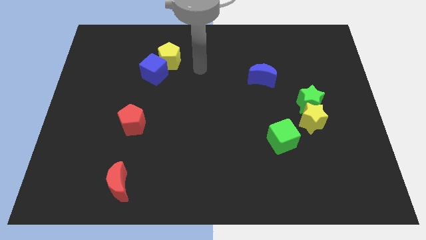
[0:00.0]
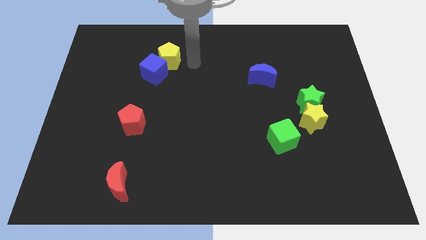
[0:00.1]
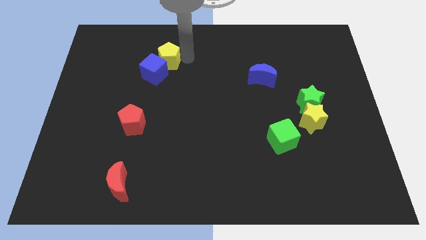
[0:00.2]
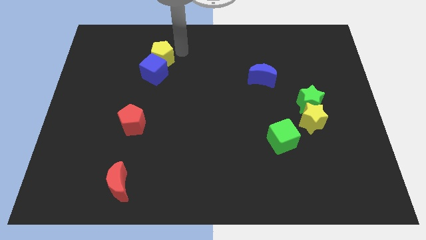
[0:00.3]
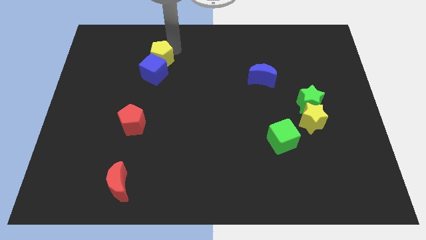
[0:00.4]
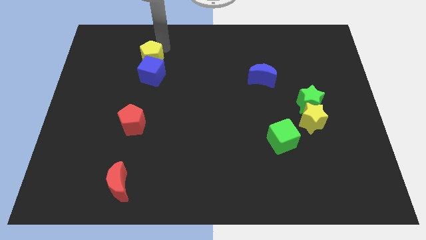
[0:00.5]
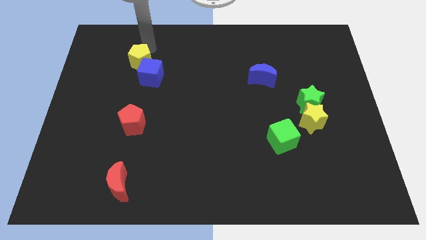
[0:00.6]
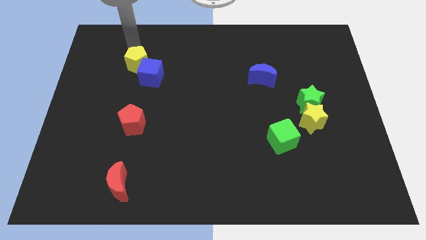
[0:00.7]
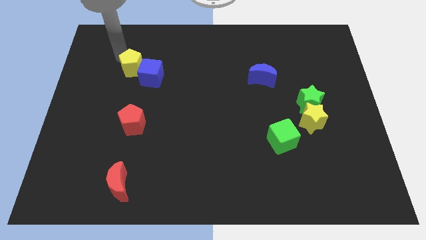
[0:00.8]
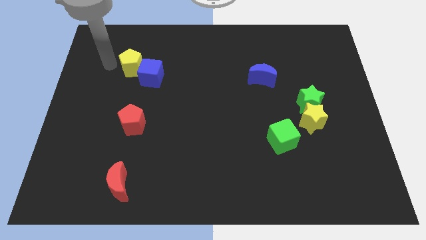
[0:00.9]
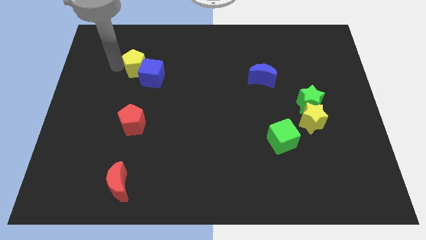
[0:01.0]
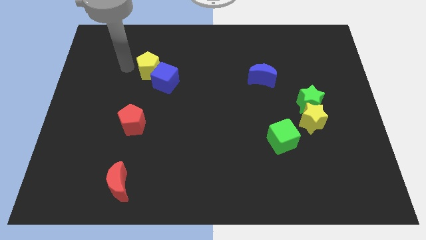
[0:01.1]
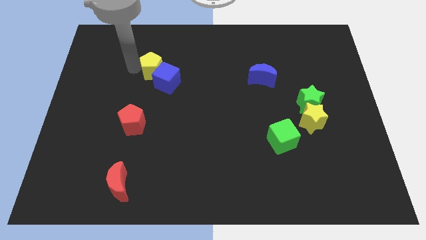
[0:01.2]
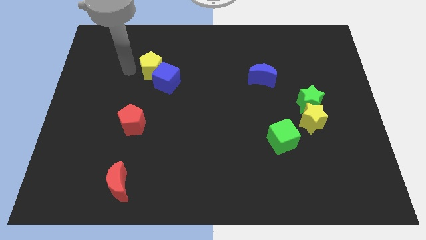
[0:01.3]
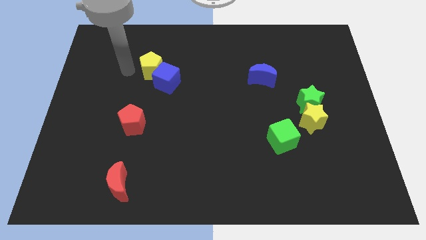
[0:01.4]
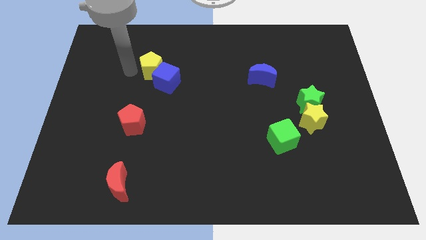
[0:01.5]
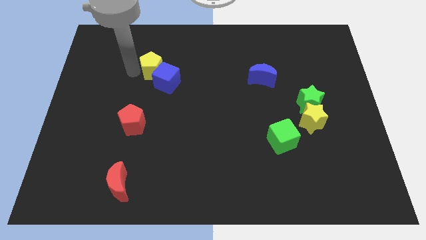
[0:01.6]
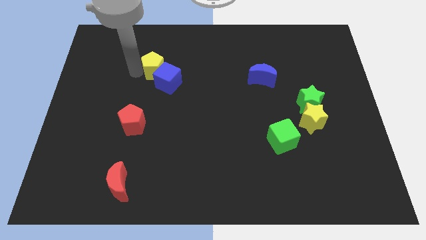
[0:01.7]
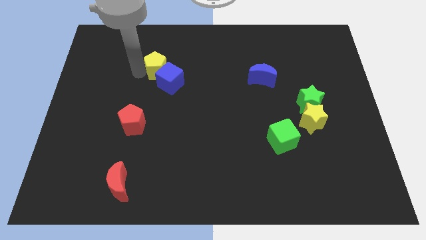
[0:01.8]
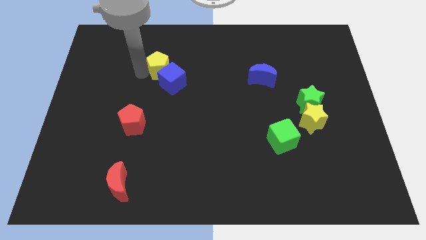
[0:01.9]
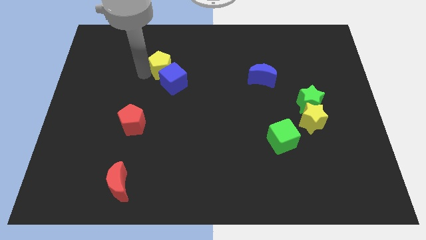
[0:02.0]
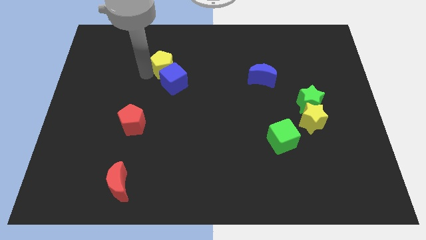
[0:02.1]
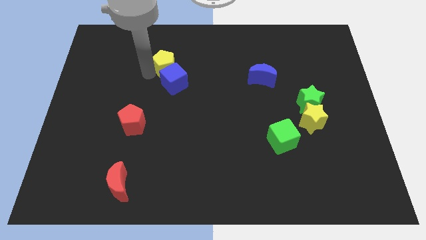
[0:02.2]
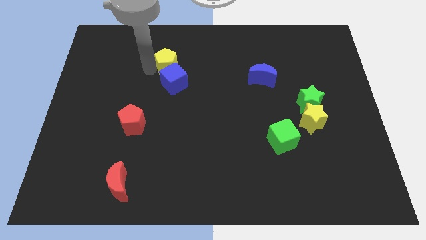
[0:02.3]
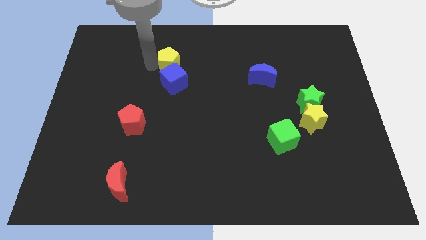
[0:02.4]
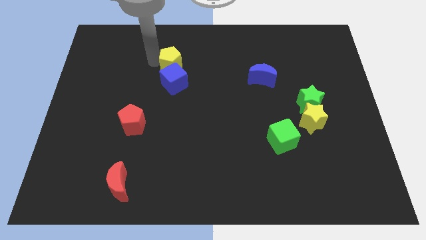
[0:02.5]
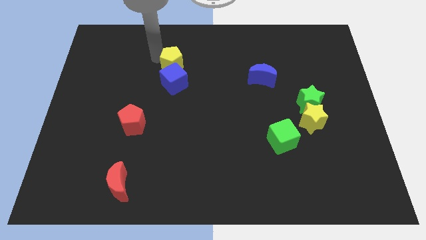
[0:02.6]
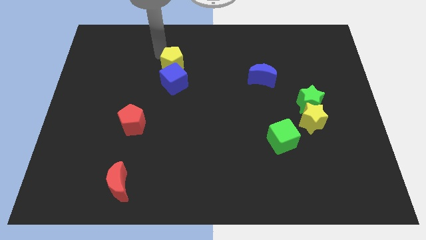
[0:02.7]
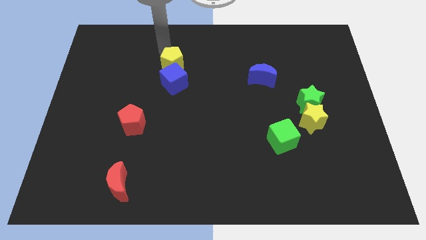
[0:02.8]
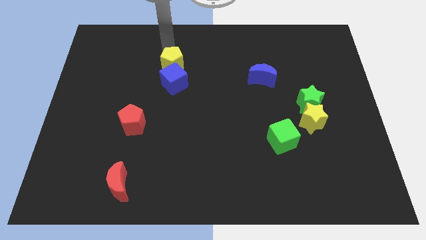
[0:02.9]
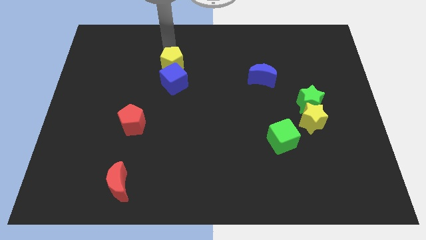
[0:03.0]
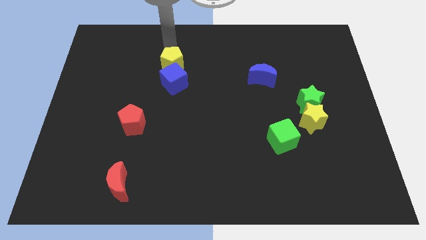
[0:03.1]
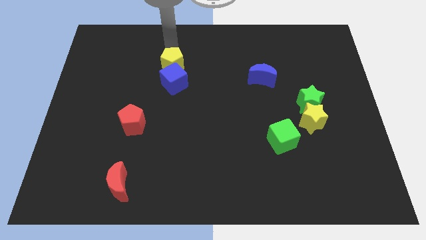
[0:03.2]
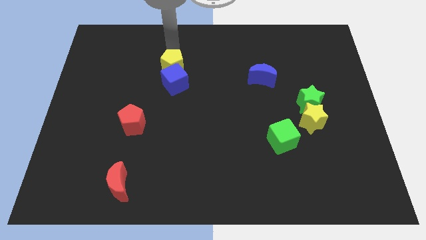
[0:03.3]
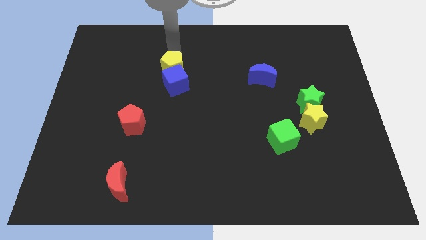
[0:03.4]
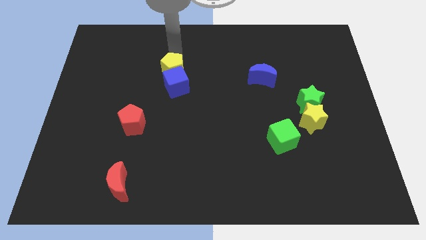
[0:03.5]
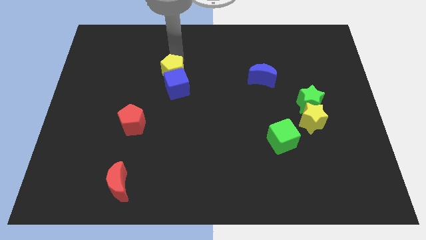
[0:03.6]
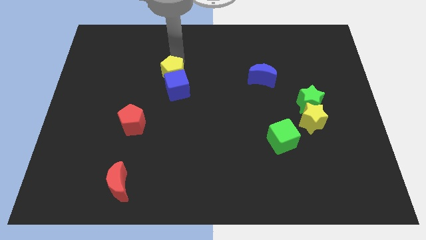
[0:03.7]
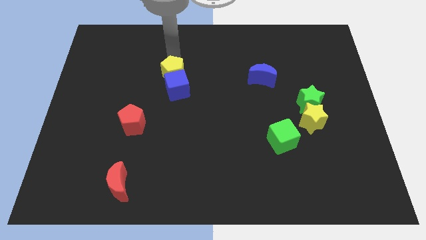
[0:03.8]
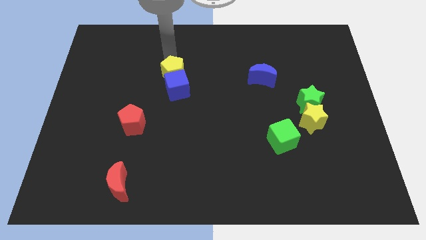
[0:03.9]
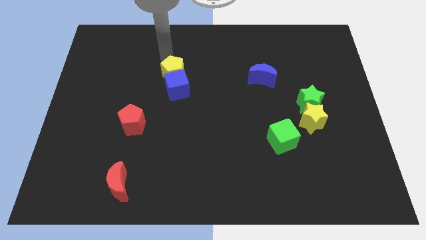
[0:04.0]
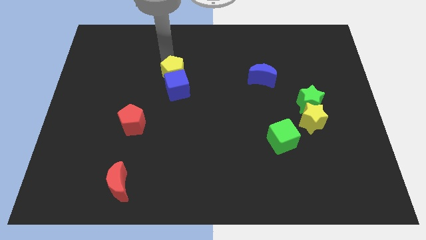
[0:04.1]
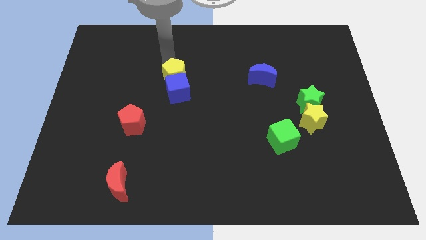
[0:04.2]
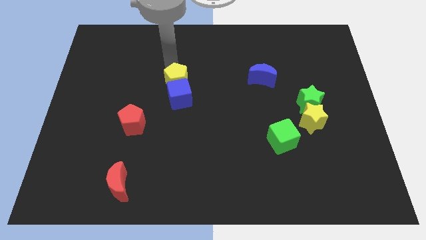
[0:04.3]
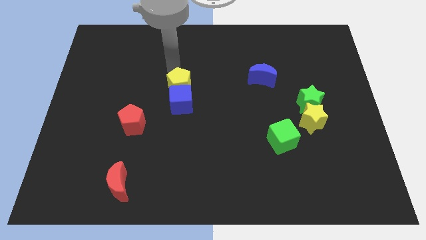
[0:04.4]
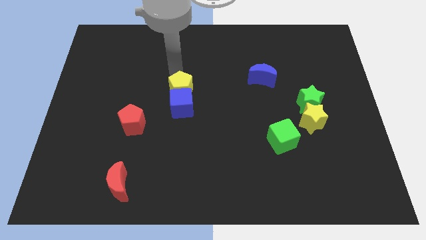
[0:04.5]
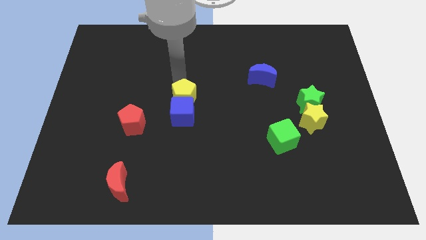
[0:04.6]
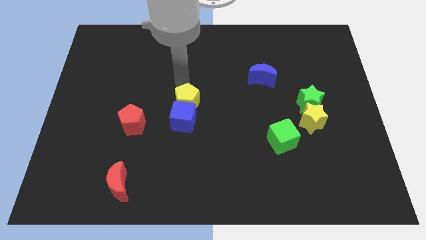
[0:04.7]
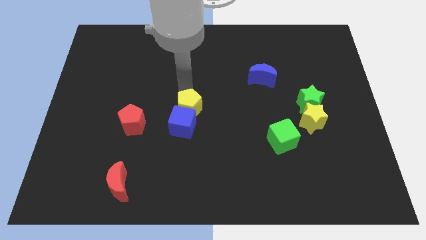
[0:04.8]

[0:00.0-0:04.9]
put the yellow pentagon to the right side of the red pentagon

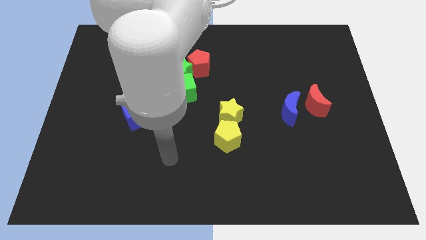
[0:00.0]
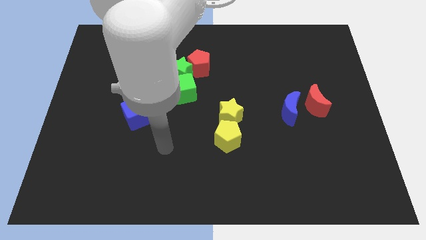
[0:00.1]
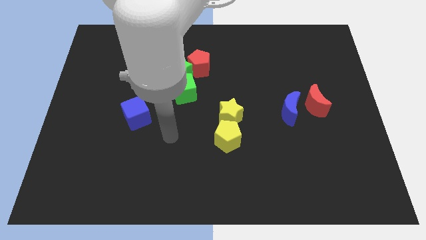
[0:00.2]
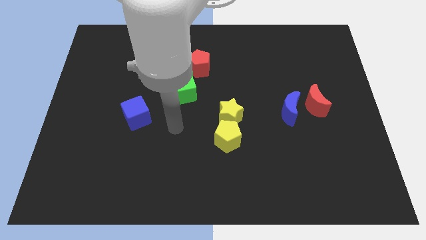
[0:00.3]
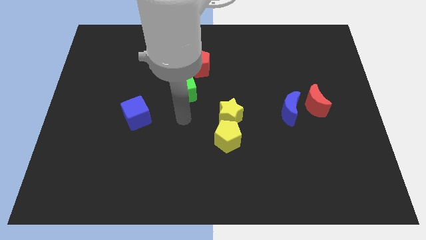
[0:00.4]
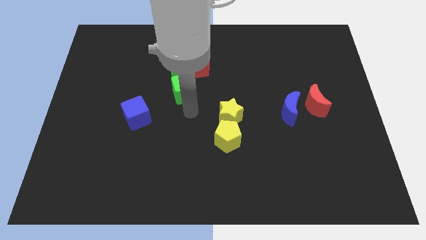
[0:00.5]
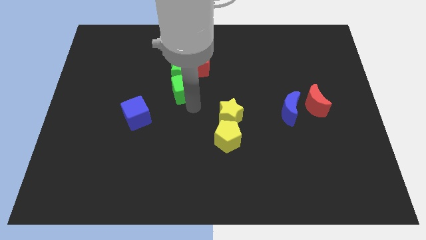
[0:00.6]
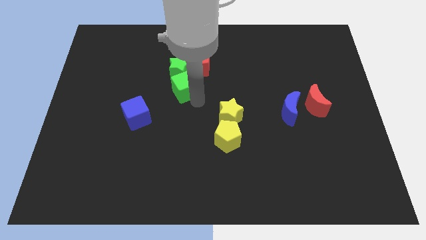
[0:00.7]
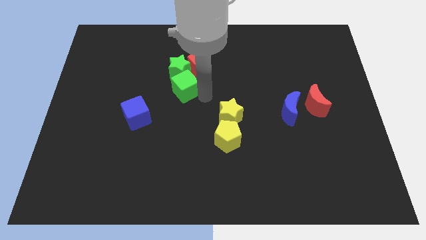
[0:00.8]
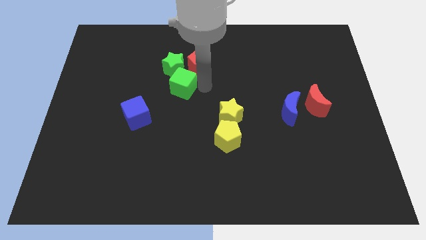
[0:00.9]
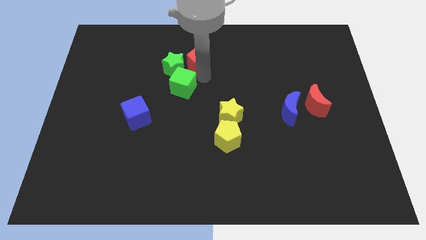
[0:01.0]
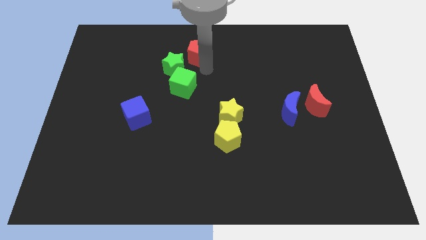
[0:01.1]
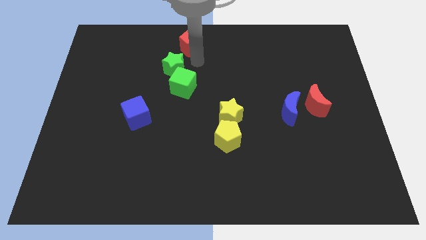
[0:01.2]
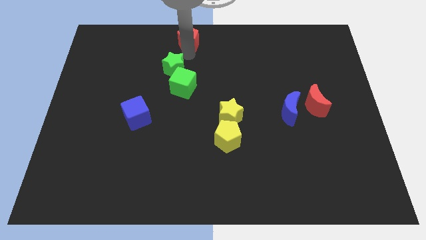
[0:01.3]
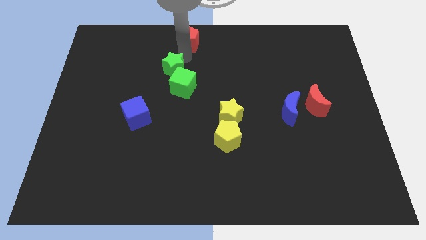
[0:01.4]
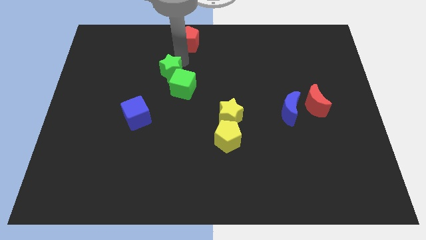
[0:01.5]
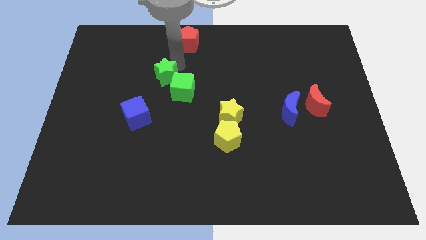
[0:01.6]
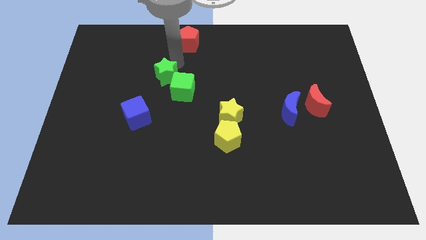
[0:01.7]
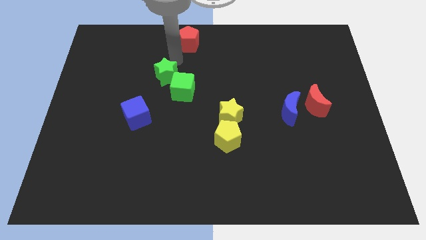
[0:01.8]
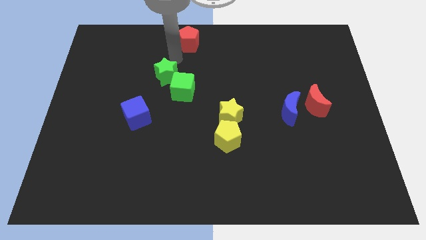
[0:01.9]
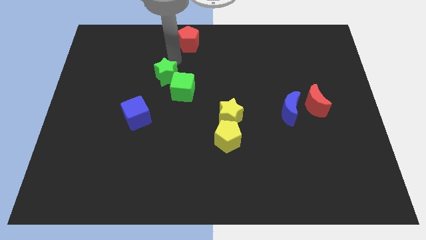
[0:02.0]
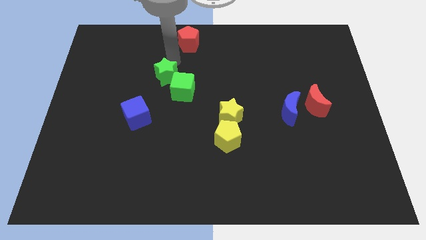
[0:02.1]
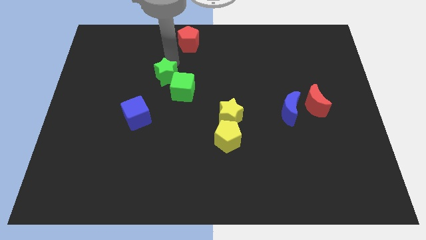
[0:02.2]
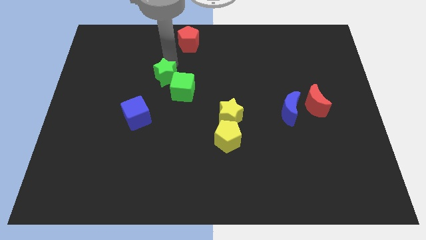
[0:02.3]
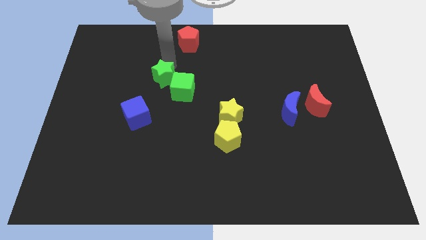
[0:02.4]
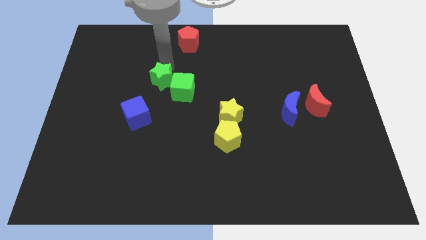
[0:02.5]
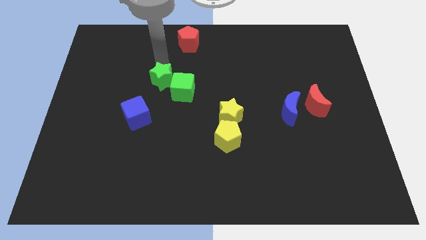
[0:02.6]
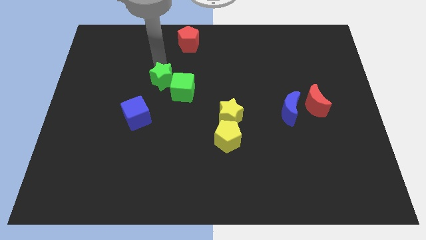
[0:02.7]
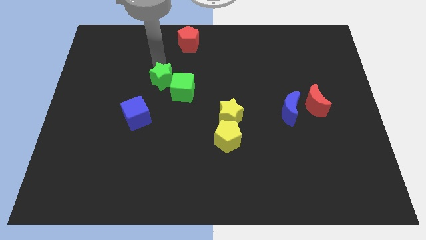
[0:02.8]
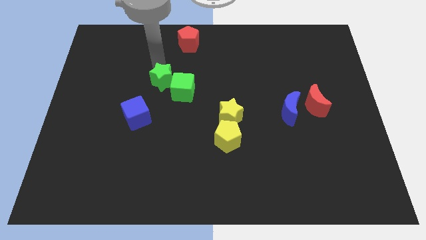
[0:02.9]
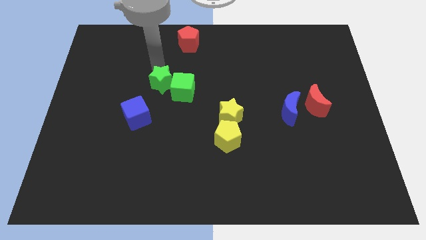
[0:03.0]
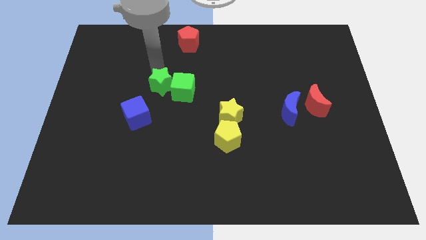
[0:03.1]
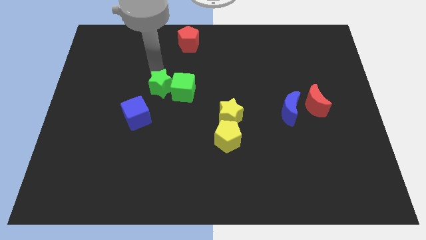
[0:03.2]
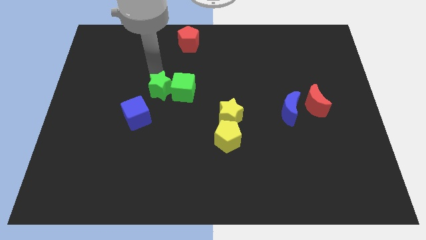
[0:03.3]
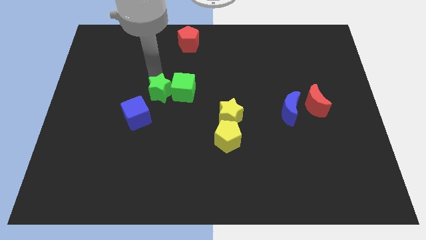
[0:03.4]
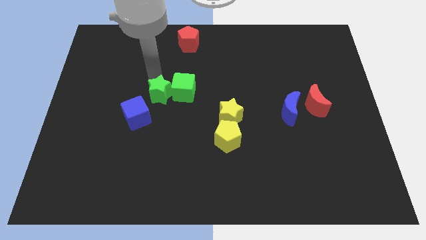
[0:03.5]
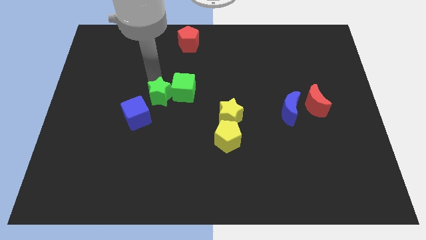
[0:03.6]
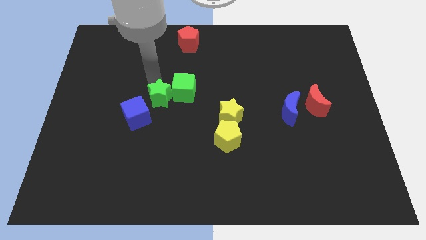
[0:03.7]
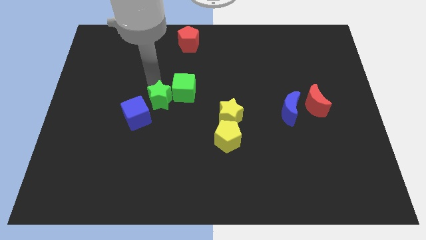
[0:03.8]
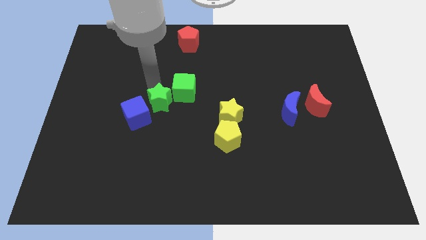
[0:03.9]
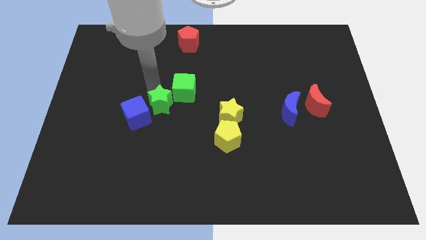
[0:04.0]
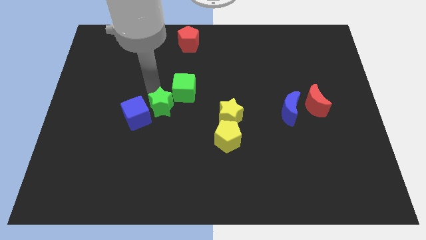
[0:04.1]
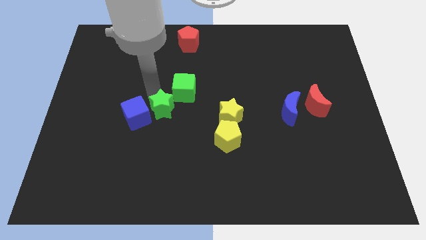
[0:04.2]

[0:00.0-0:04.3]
push the green star to the left side of the yellow star
